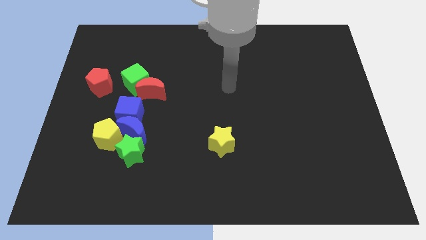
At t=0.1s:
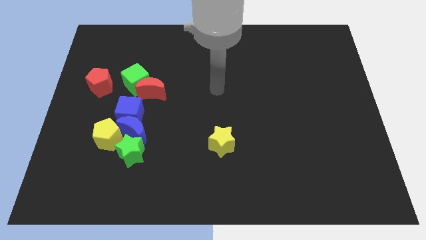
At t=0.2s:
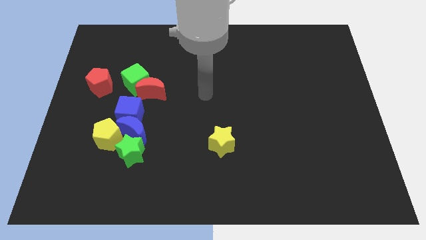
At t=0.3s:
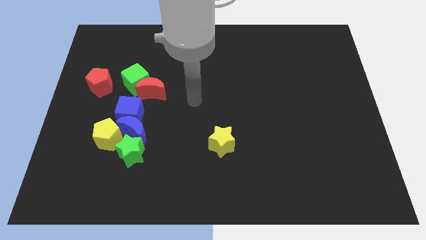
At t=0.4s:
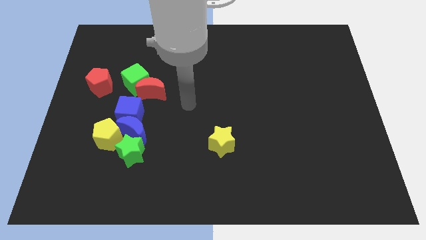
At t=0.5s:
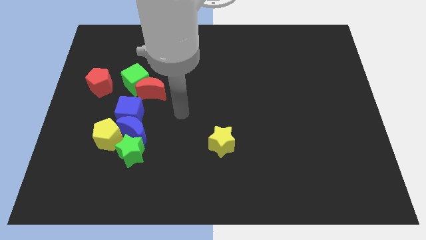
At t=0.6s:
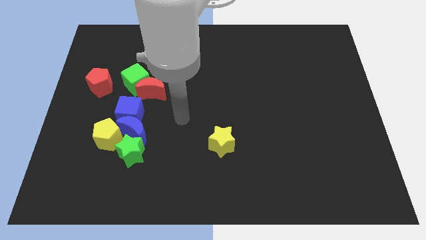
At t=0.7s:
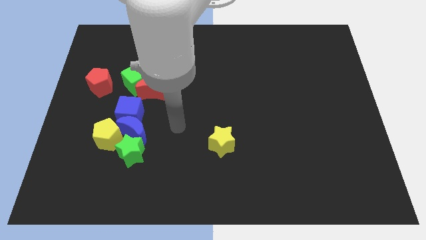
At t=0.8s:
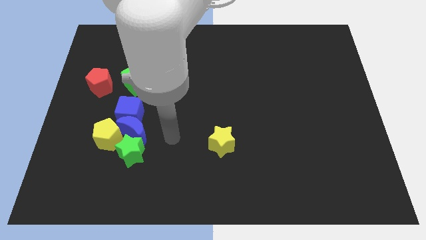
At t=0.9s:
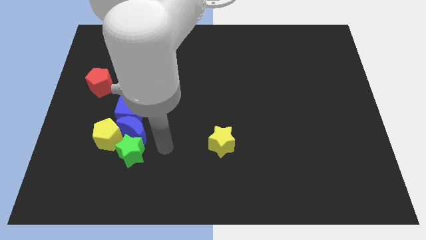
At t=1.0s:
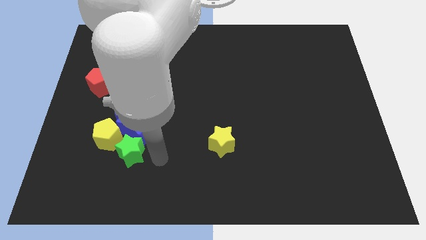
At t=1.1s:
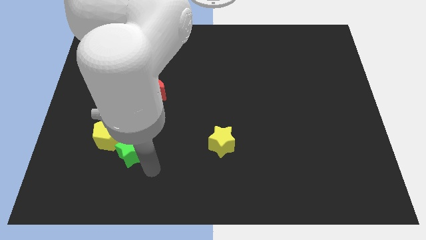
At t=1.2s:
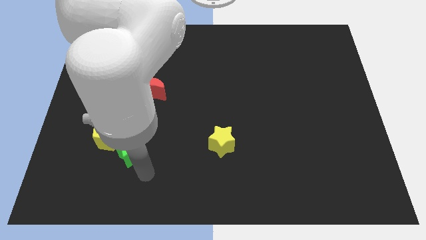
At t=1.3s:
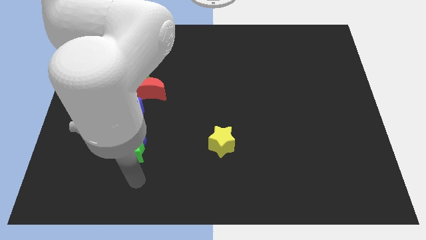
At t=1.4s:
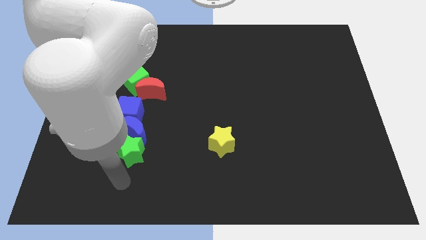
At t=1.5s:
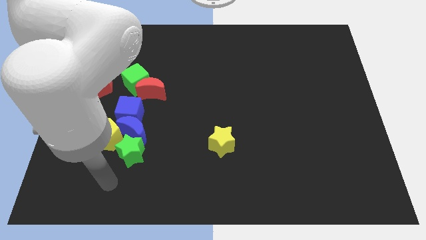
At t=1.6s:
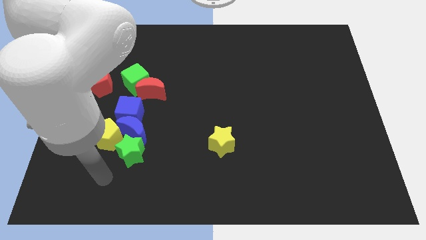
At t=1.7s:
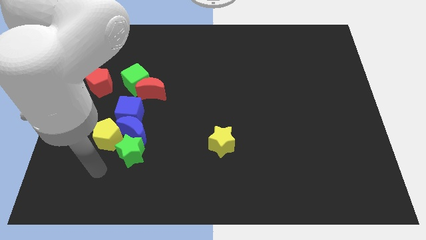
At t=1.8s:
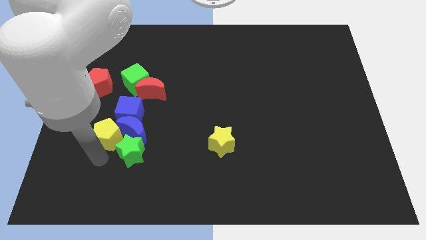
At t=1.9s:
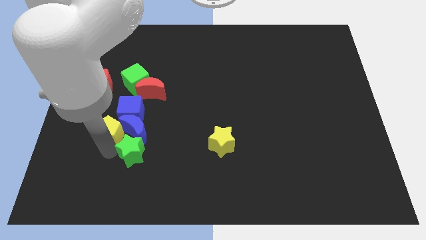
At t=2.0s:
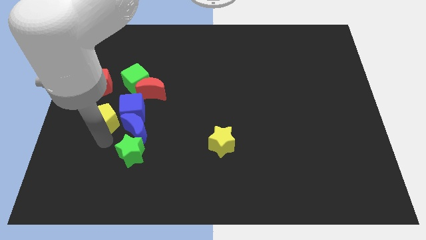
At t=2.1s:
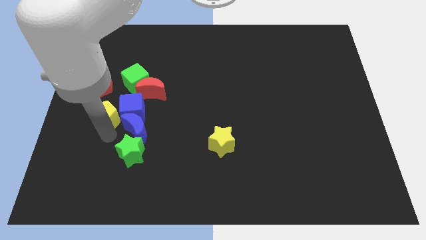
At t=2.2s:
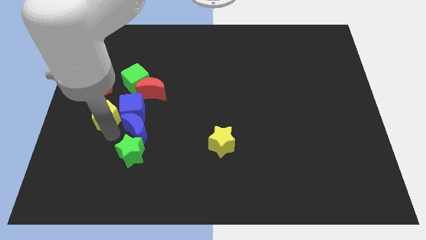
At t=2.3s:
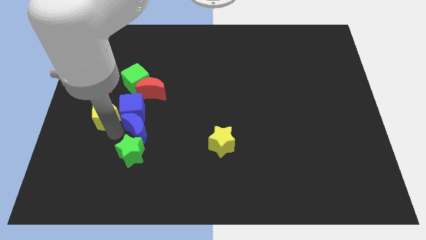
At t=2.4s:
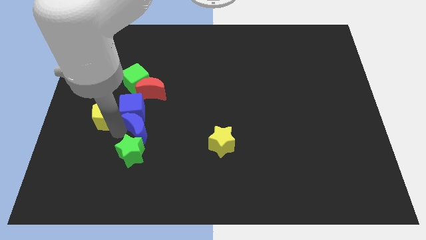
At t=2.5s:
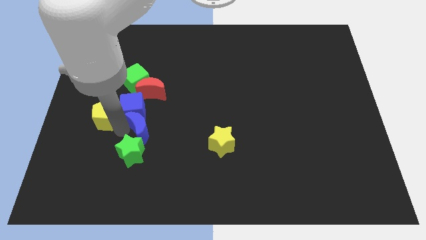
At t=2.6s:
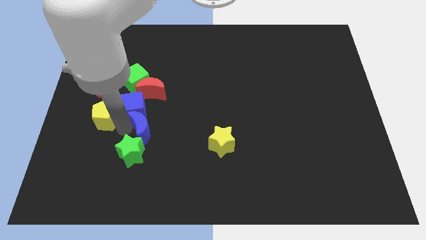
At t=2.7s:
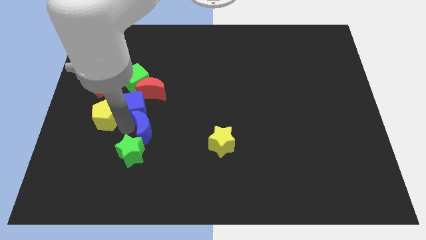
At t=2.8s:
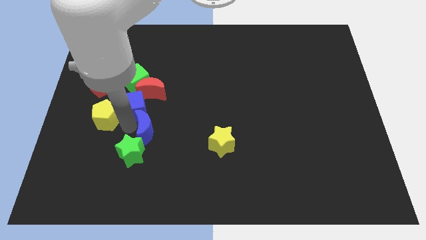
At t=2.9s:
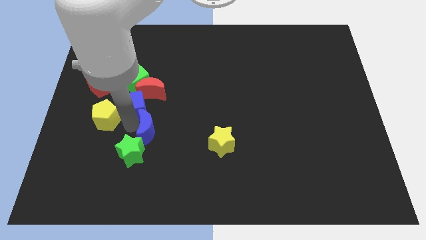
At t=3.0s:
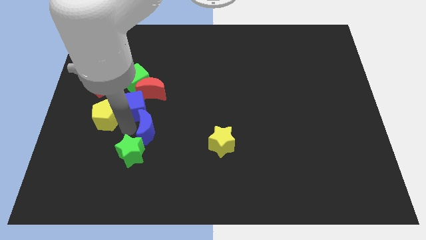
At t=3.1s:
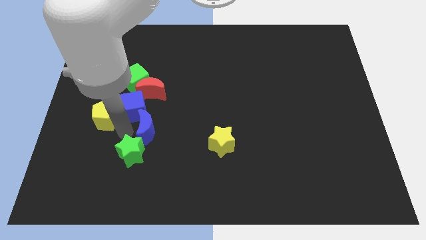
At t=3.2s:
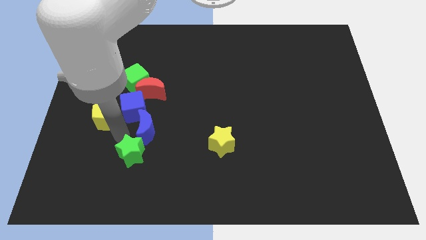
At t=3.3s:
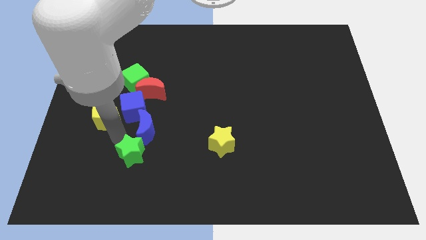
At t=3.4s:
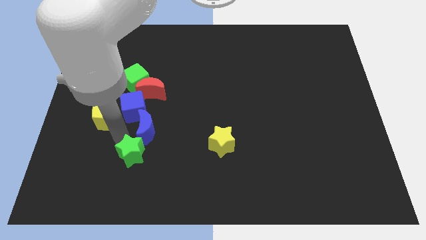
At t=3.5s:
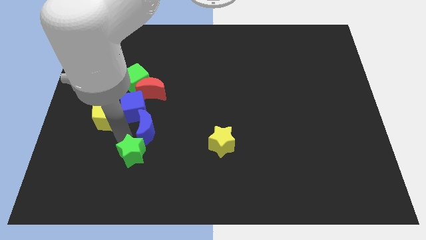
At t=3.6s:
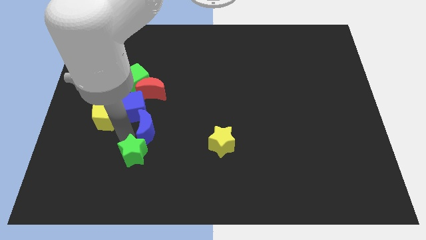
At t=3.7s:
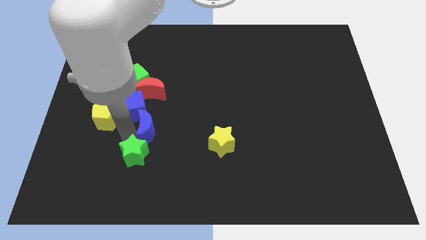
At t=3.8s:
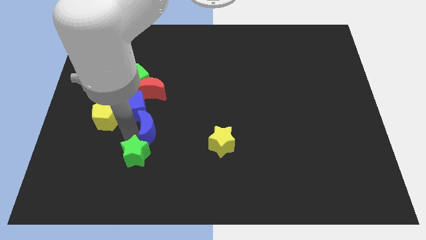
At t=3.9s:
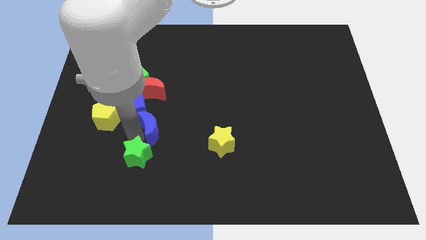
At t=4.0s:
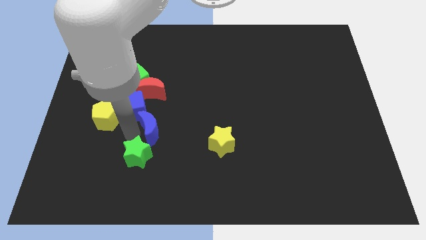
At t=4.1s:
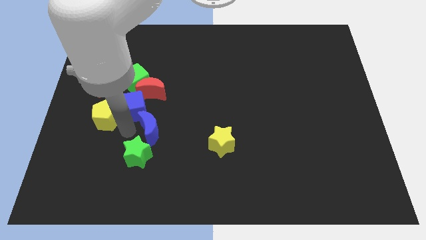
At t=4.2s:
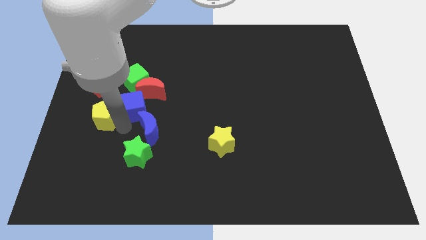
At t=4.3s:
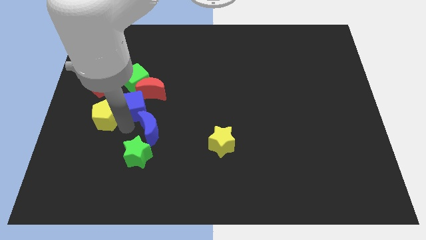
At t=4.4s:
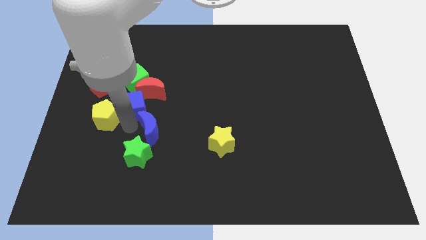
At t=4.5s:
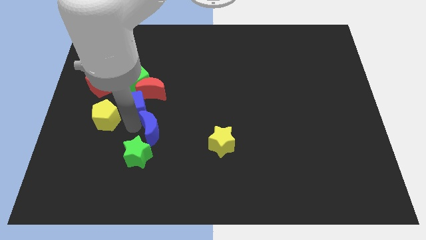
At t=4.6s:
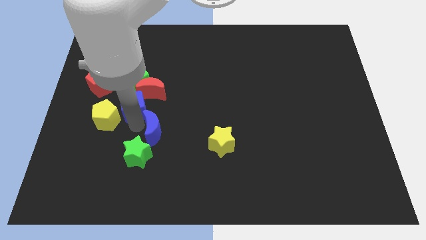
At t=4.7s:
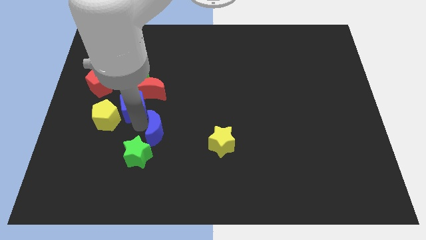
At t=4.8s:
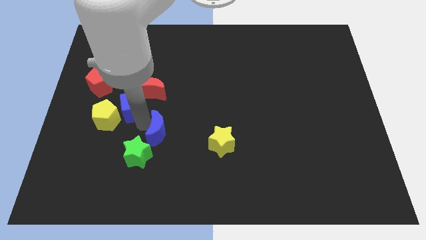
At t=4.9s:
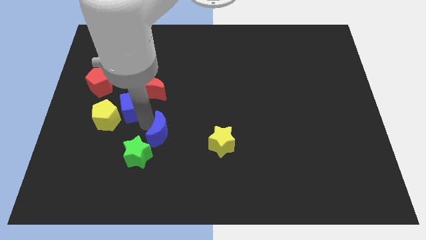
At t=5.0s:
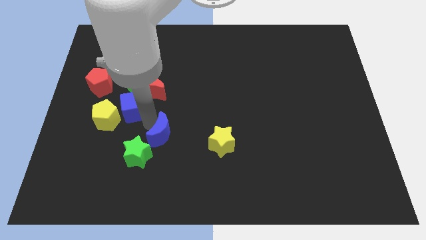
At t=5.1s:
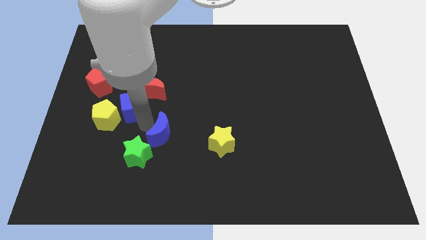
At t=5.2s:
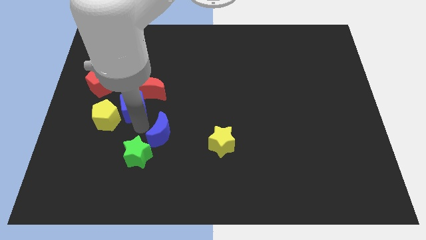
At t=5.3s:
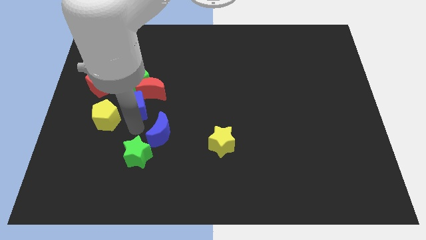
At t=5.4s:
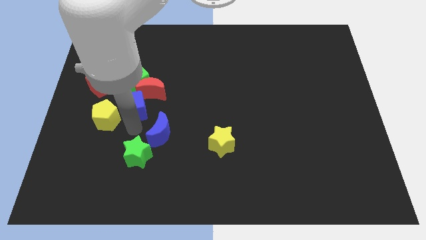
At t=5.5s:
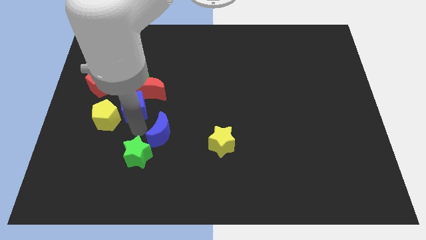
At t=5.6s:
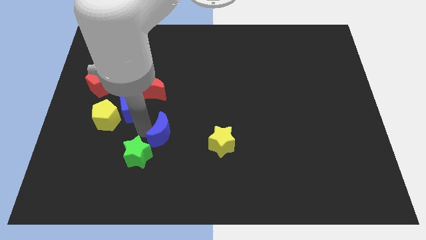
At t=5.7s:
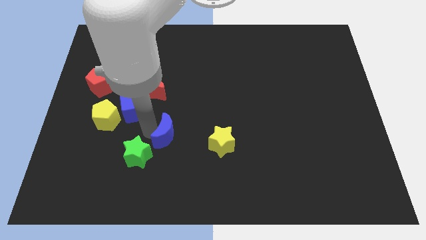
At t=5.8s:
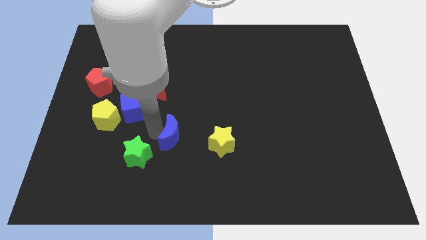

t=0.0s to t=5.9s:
pull the blue moon apart from the blue cube, green star, and yellow pentagon

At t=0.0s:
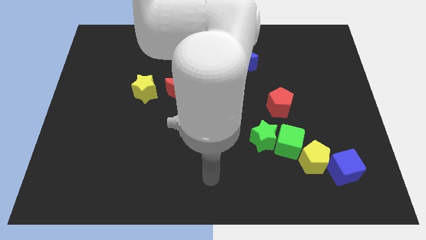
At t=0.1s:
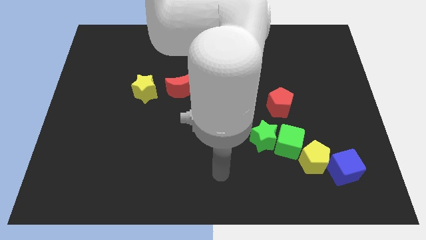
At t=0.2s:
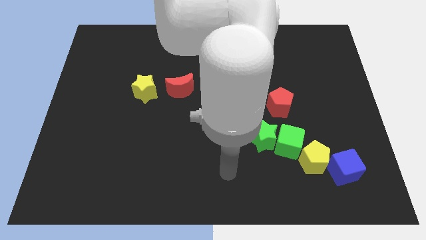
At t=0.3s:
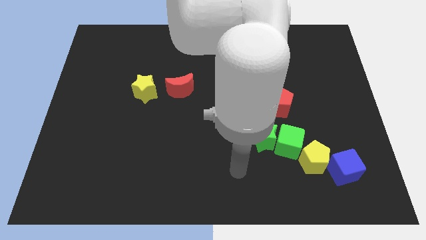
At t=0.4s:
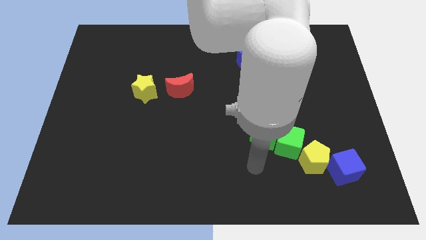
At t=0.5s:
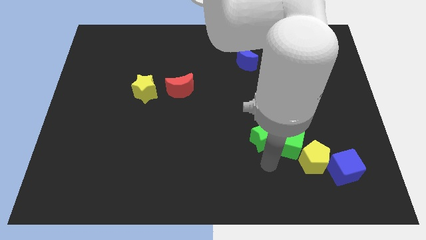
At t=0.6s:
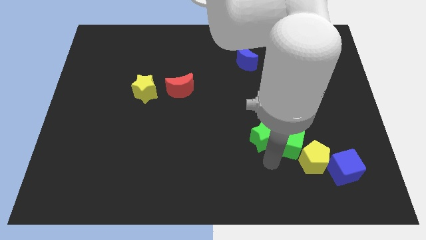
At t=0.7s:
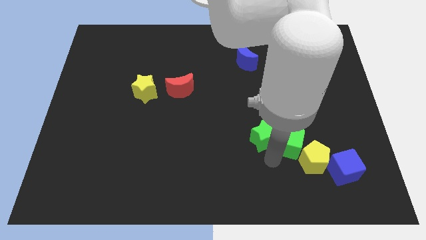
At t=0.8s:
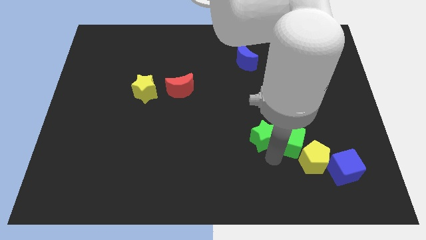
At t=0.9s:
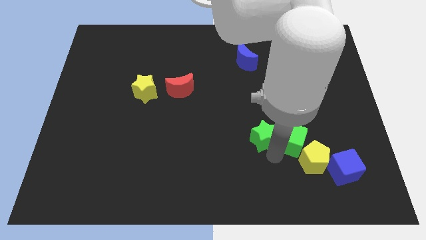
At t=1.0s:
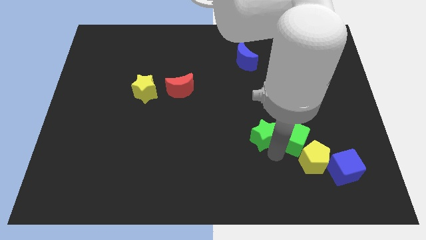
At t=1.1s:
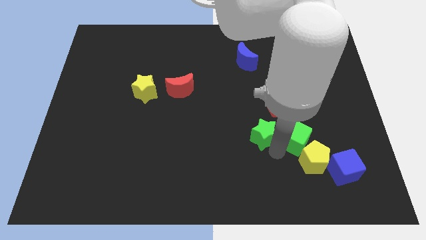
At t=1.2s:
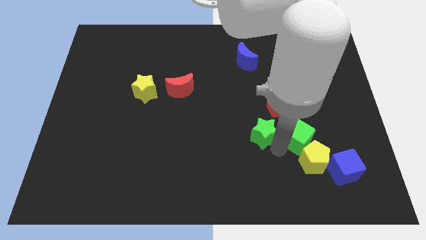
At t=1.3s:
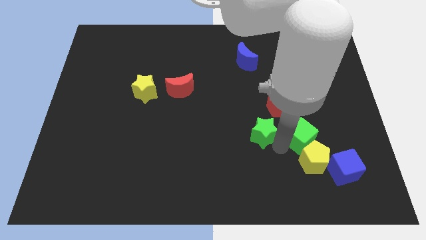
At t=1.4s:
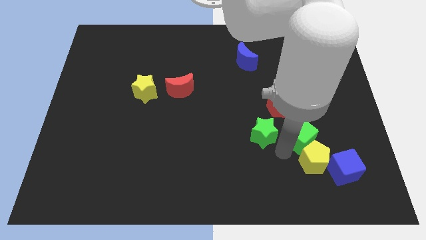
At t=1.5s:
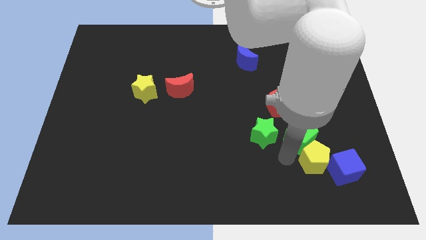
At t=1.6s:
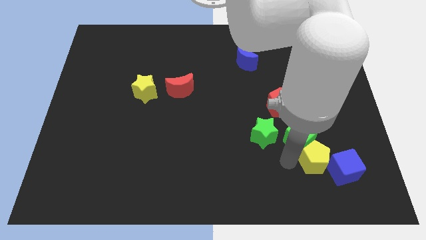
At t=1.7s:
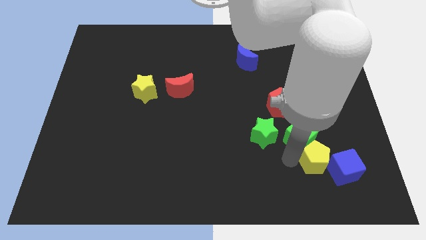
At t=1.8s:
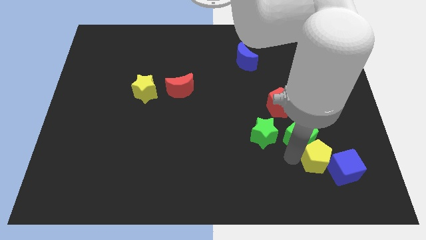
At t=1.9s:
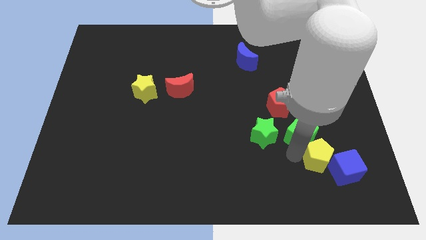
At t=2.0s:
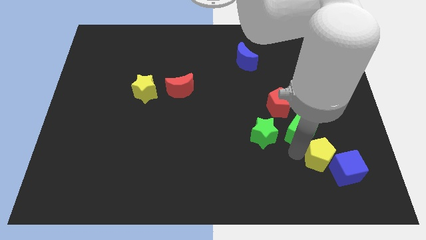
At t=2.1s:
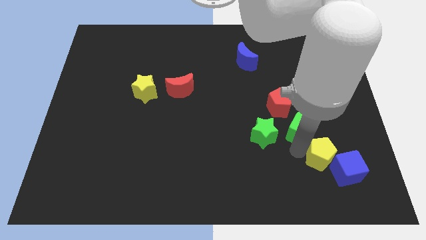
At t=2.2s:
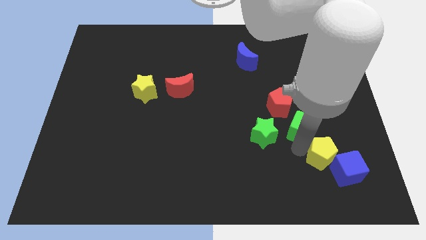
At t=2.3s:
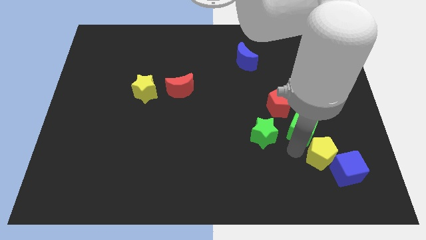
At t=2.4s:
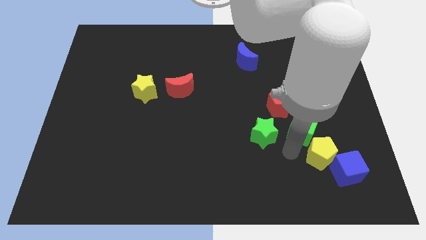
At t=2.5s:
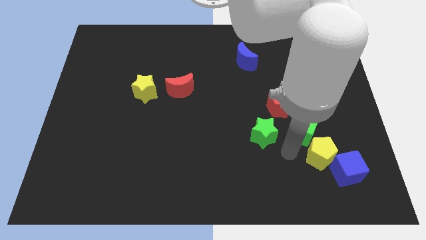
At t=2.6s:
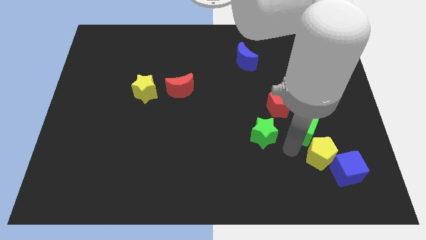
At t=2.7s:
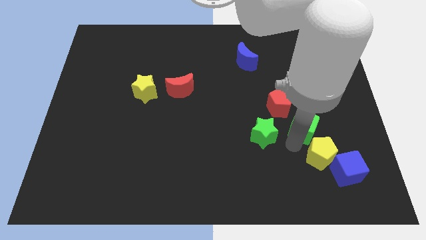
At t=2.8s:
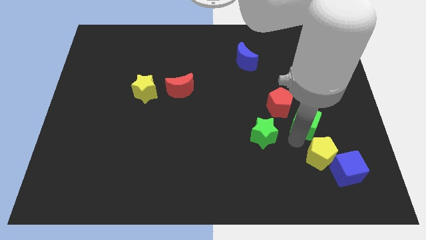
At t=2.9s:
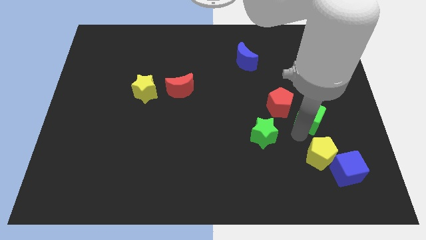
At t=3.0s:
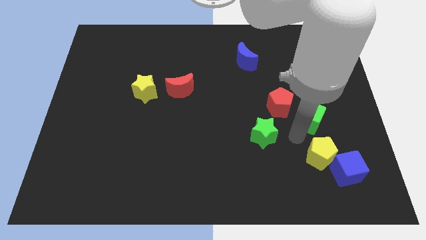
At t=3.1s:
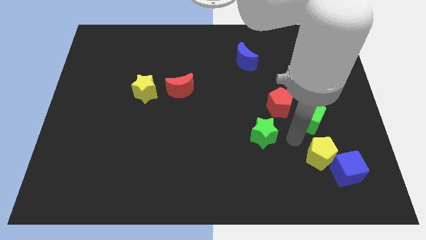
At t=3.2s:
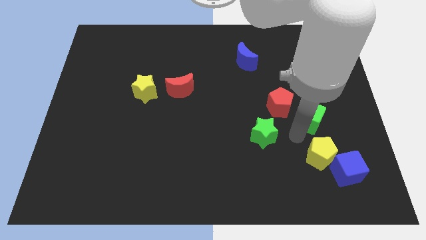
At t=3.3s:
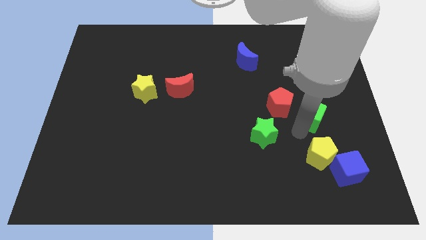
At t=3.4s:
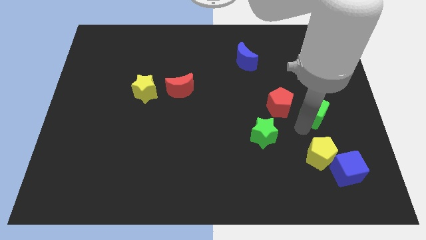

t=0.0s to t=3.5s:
pull the green cube apart from the green star and yellow pentagon
